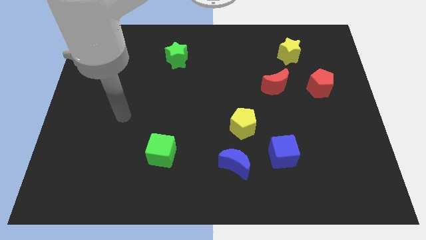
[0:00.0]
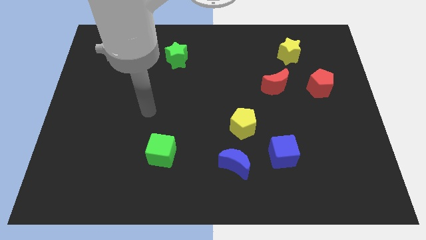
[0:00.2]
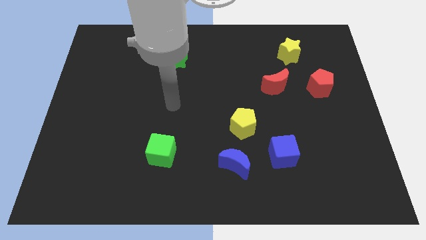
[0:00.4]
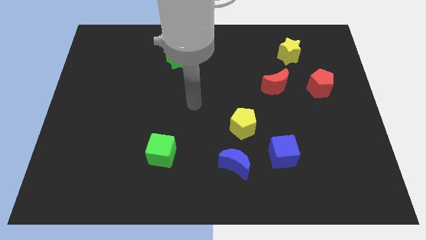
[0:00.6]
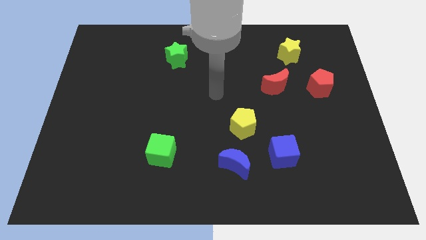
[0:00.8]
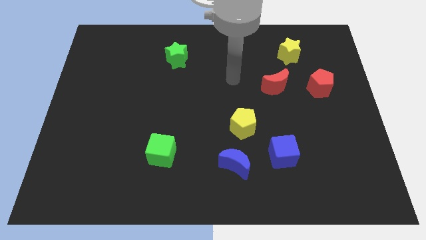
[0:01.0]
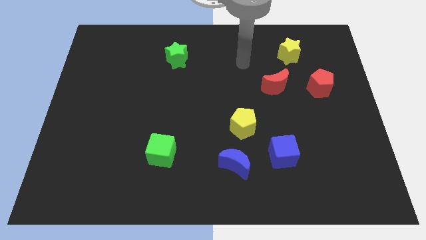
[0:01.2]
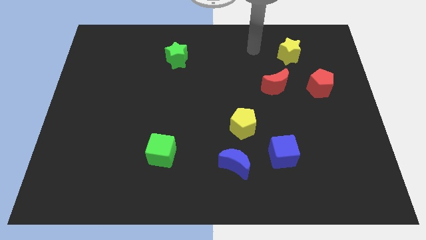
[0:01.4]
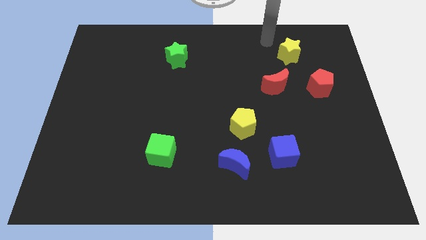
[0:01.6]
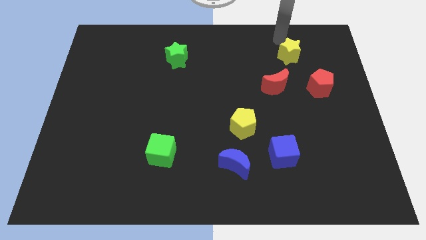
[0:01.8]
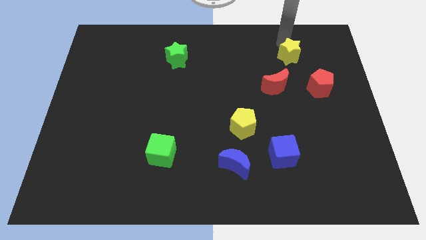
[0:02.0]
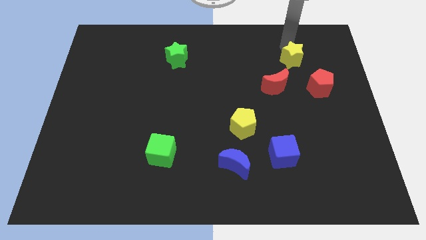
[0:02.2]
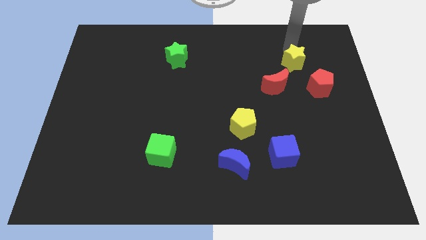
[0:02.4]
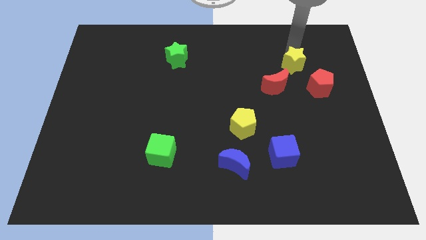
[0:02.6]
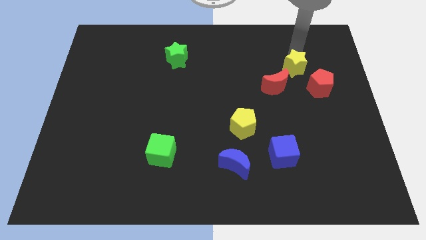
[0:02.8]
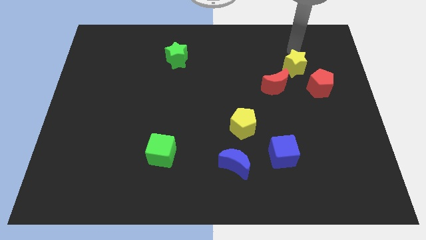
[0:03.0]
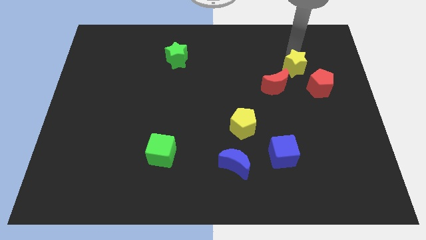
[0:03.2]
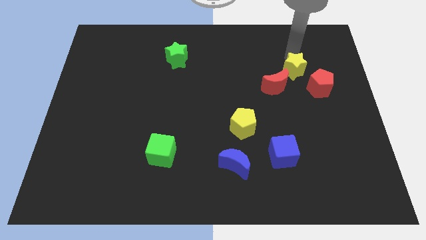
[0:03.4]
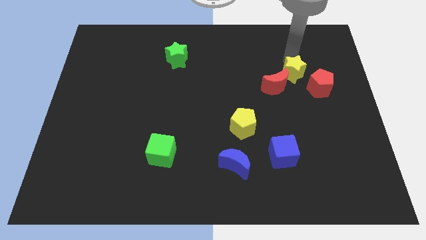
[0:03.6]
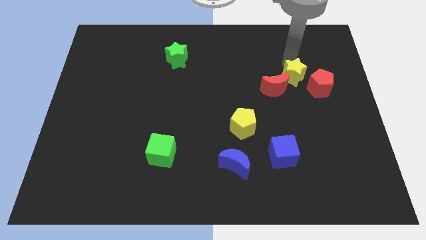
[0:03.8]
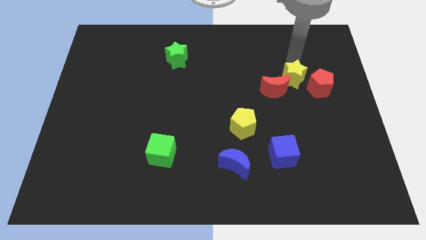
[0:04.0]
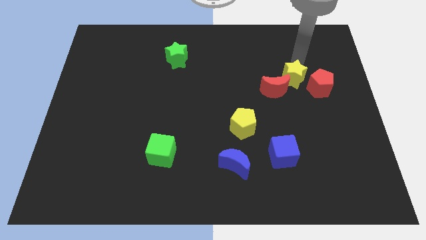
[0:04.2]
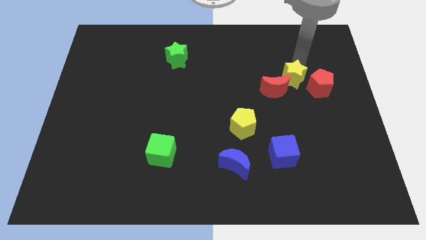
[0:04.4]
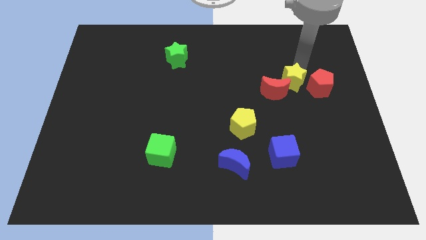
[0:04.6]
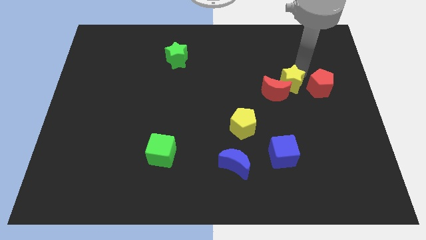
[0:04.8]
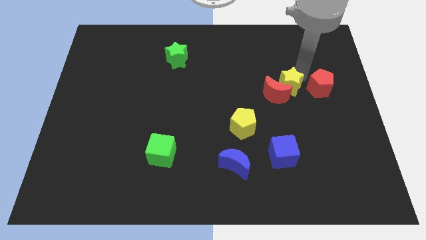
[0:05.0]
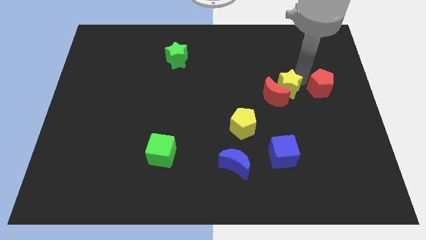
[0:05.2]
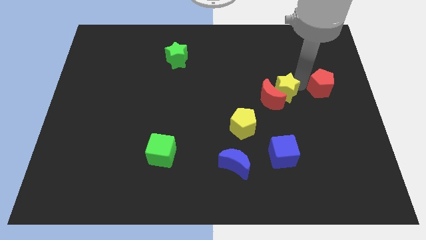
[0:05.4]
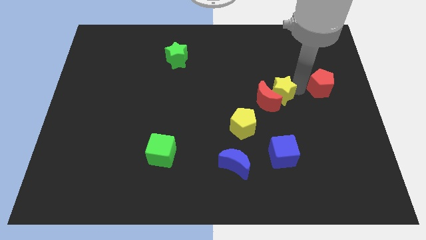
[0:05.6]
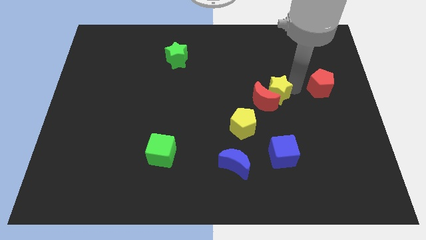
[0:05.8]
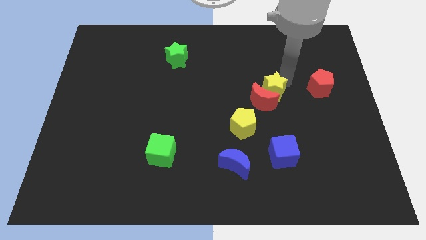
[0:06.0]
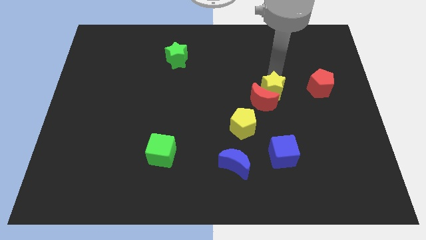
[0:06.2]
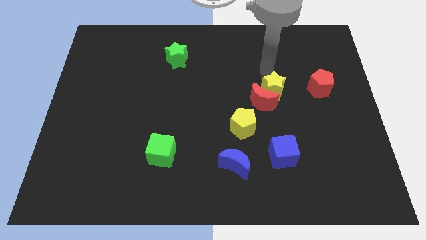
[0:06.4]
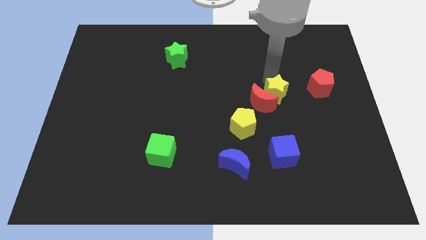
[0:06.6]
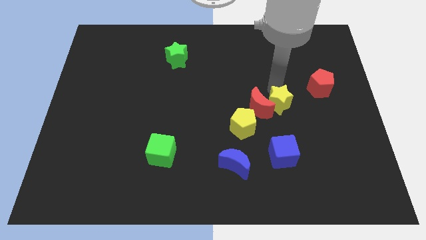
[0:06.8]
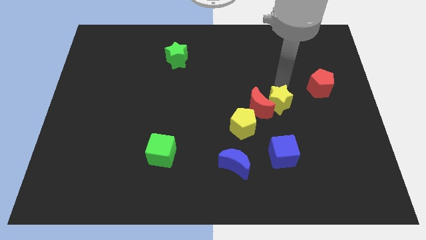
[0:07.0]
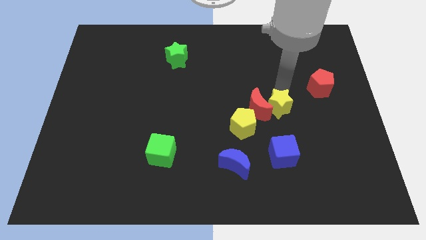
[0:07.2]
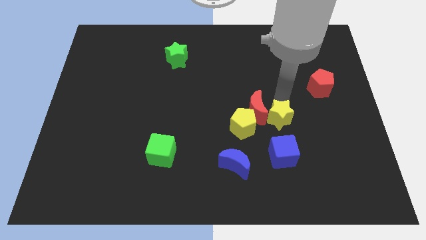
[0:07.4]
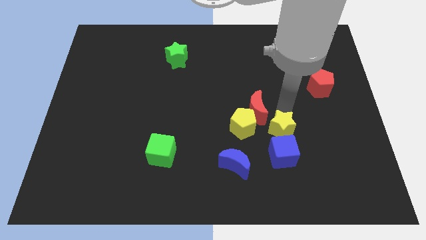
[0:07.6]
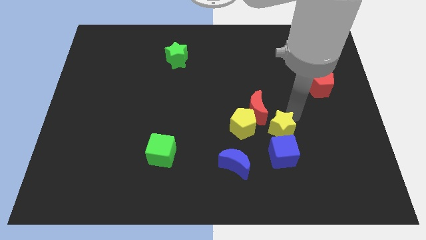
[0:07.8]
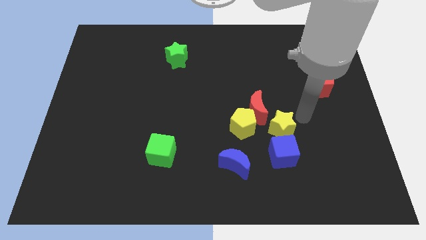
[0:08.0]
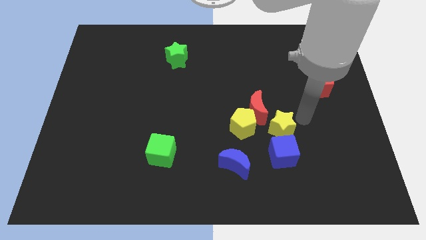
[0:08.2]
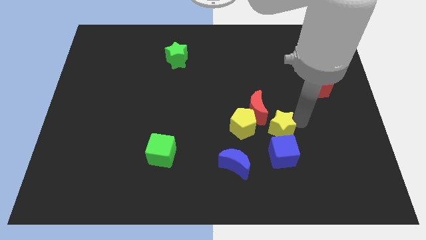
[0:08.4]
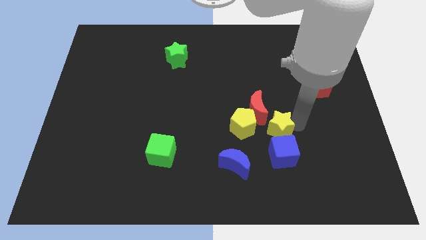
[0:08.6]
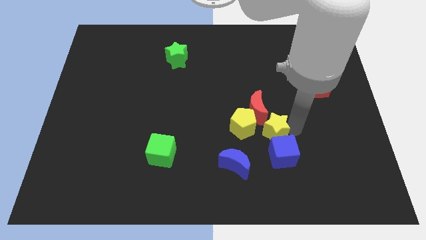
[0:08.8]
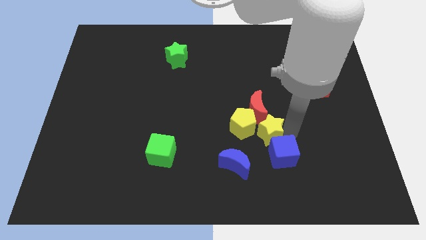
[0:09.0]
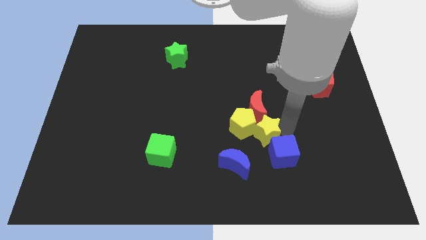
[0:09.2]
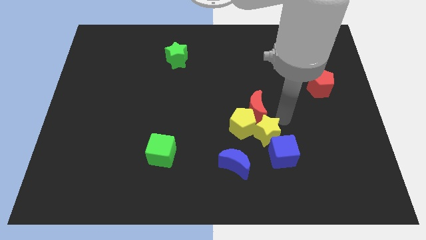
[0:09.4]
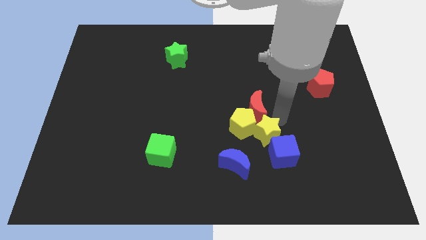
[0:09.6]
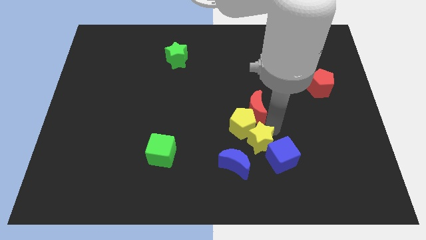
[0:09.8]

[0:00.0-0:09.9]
slide the yellow star to the bottom of the yellow pentagon

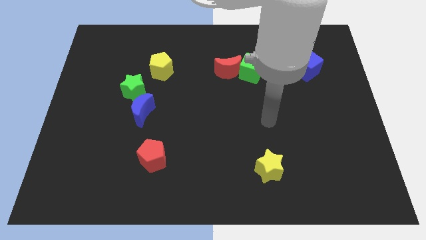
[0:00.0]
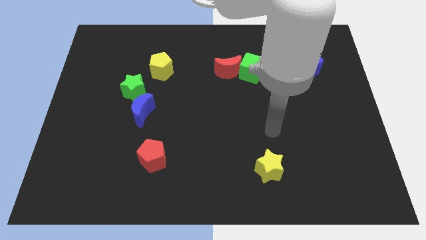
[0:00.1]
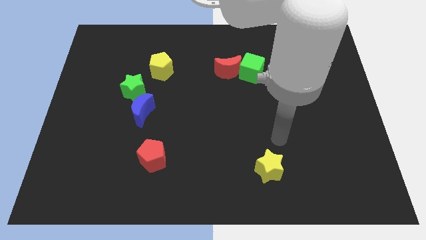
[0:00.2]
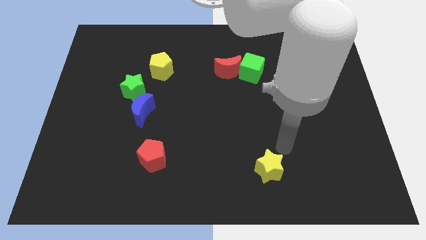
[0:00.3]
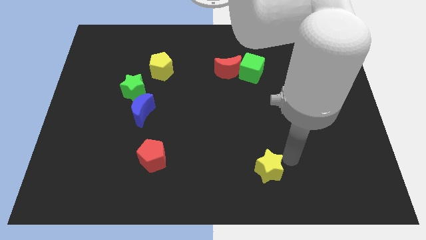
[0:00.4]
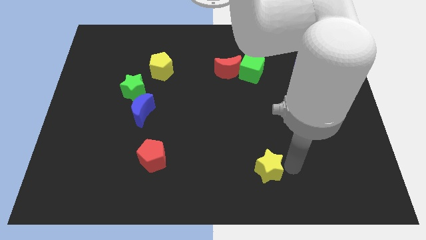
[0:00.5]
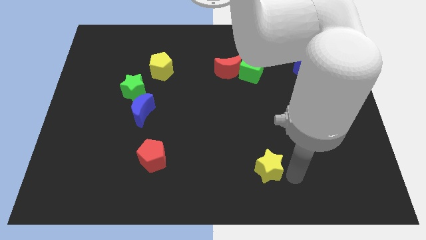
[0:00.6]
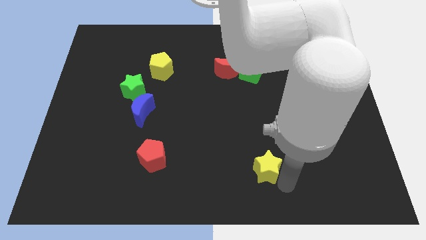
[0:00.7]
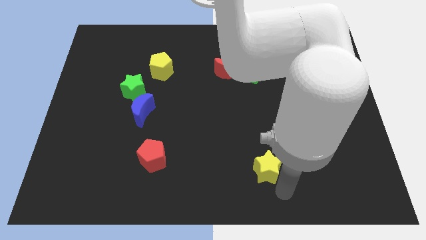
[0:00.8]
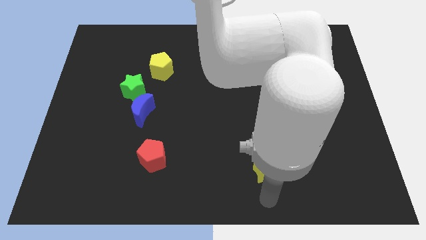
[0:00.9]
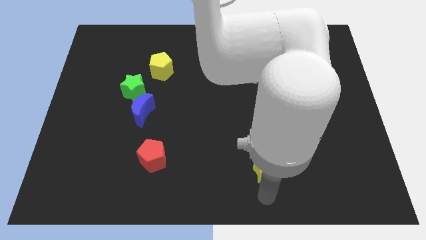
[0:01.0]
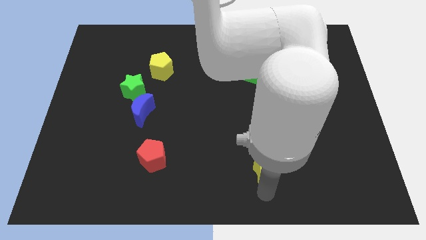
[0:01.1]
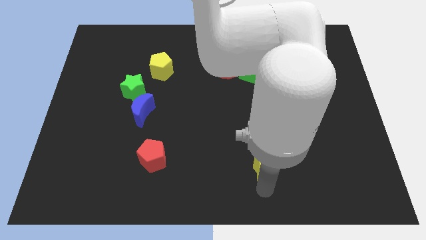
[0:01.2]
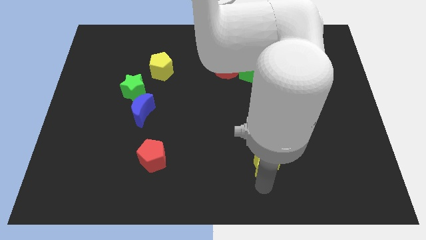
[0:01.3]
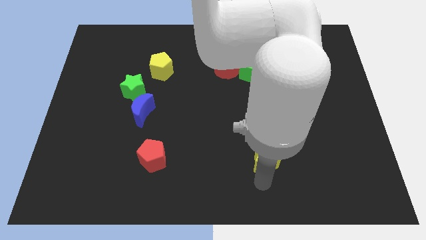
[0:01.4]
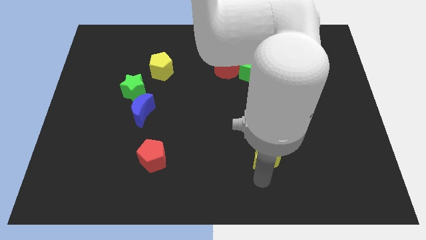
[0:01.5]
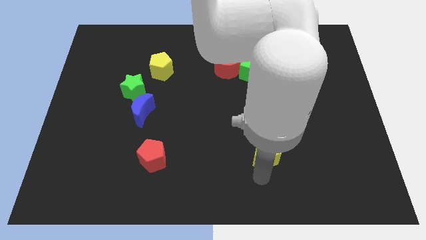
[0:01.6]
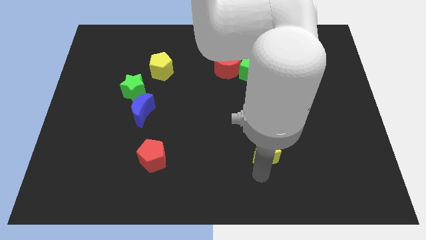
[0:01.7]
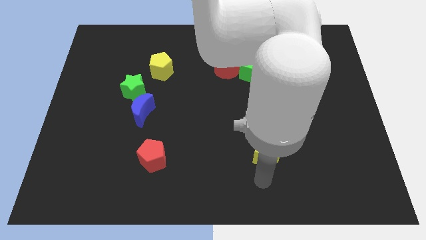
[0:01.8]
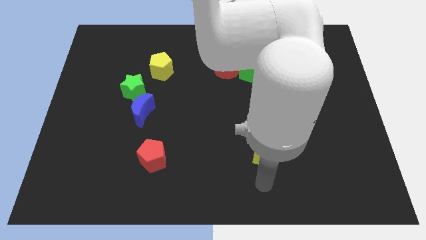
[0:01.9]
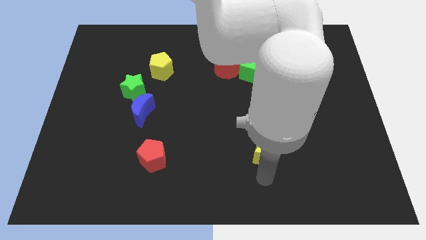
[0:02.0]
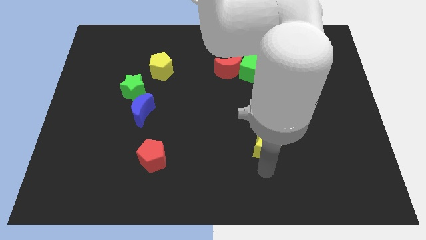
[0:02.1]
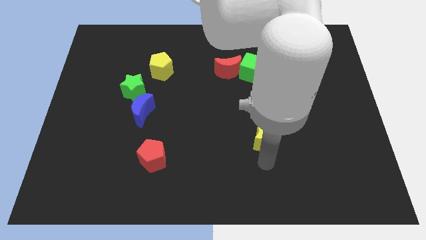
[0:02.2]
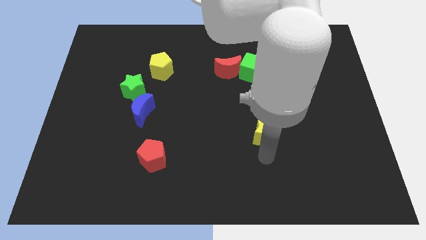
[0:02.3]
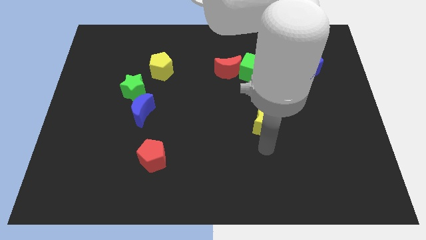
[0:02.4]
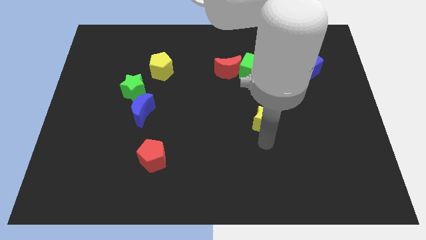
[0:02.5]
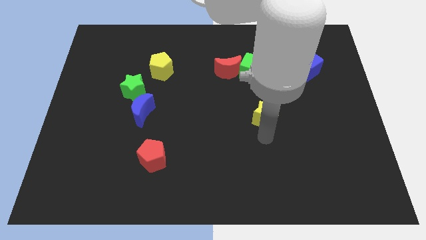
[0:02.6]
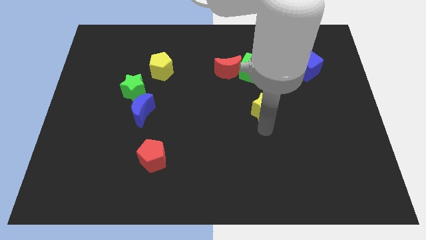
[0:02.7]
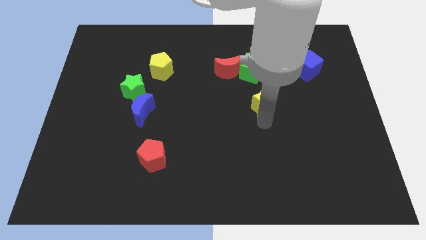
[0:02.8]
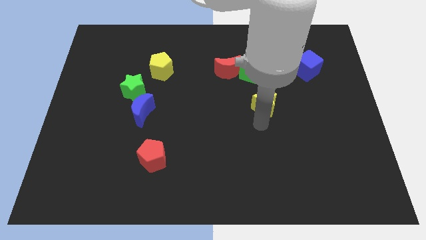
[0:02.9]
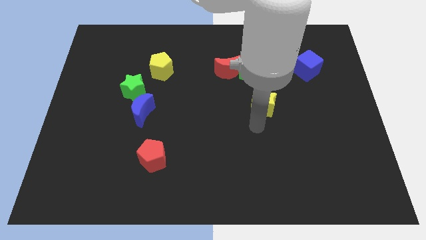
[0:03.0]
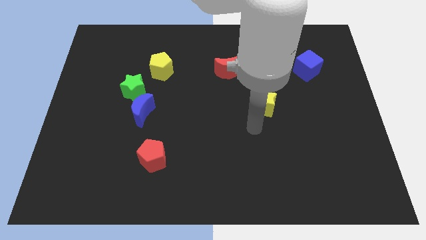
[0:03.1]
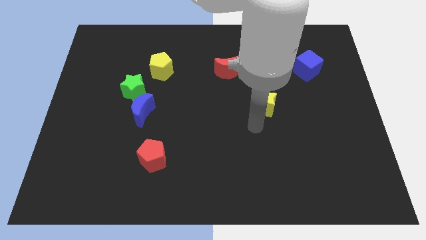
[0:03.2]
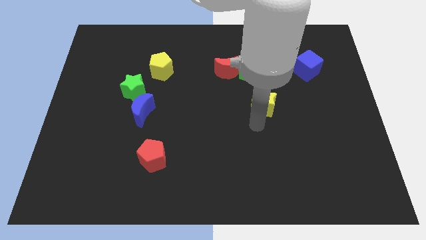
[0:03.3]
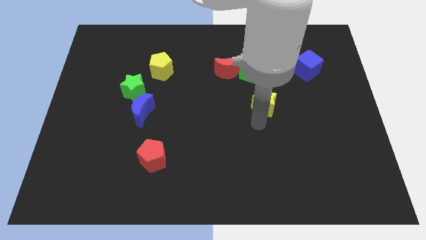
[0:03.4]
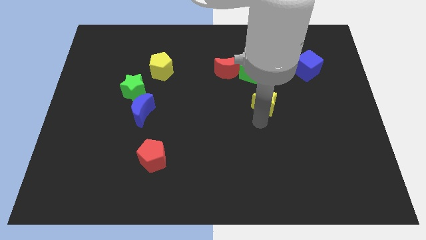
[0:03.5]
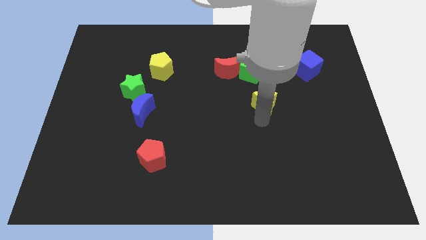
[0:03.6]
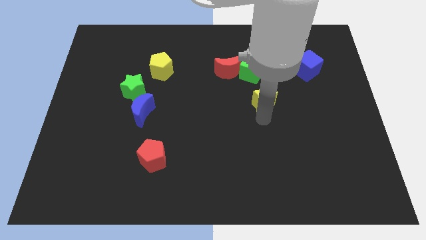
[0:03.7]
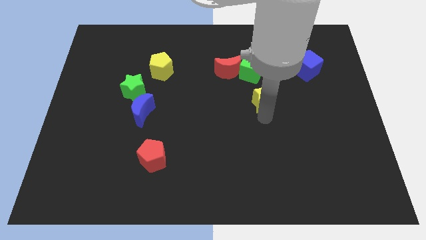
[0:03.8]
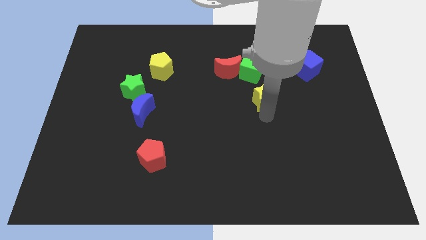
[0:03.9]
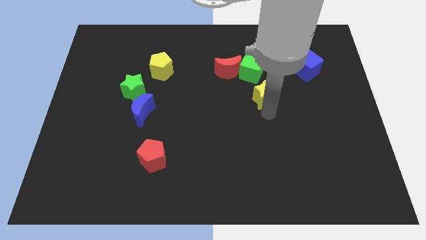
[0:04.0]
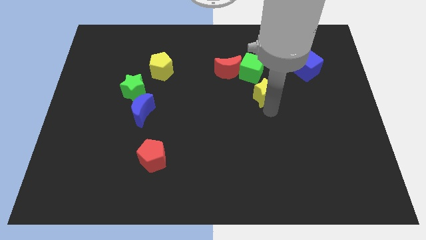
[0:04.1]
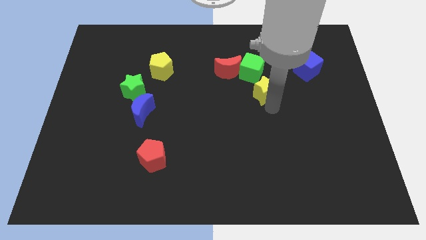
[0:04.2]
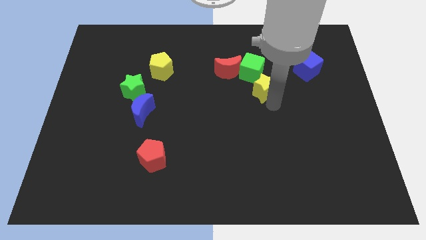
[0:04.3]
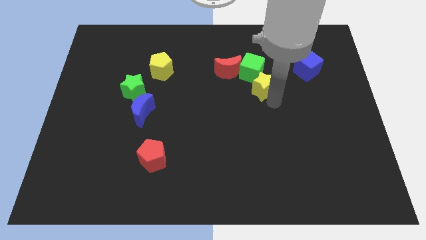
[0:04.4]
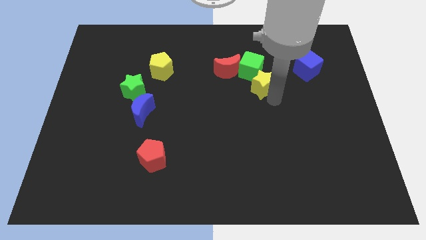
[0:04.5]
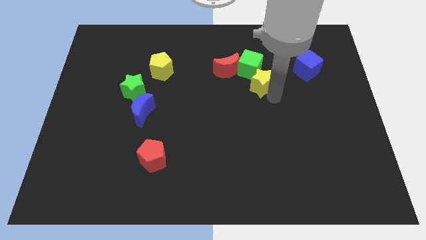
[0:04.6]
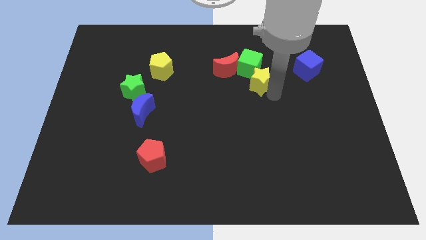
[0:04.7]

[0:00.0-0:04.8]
push the yellow star right of the red moon
